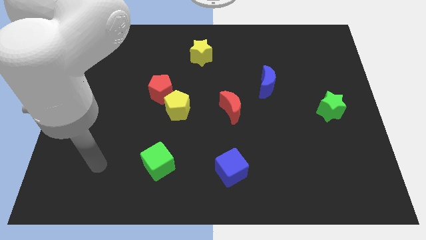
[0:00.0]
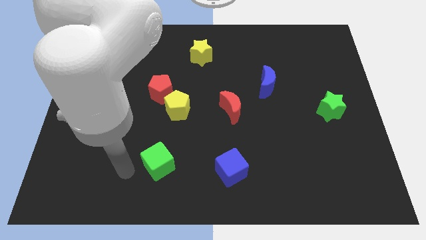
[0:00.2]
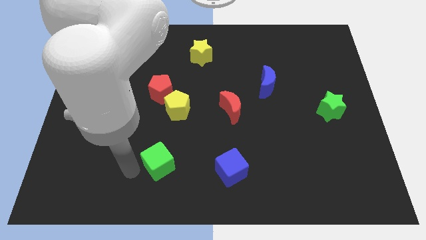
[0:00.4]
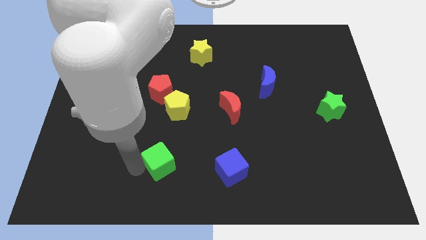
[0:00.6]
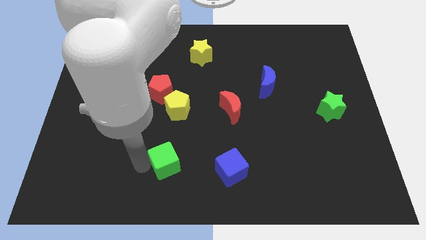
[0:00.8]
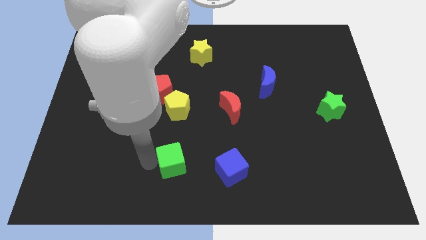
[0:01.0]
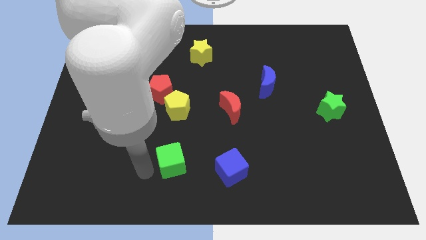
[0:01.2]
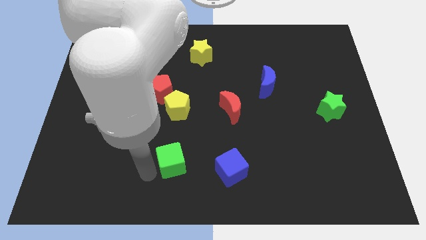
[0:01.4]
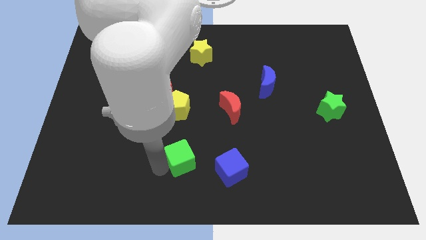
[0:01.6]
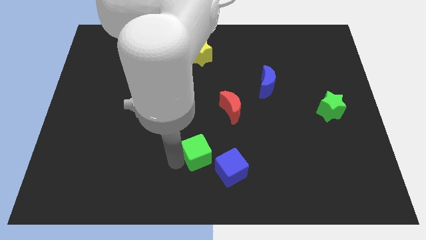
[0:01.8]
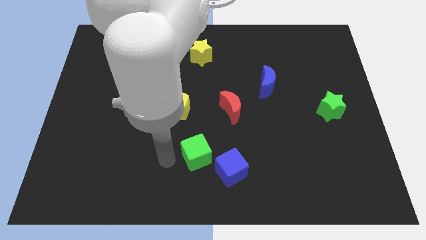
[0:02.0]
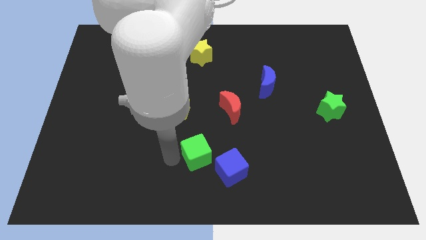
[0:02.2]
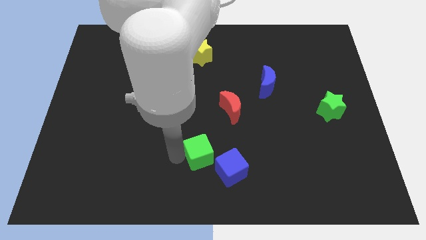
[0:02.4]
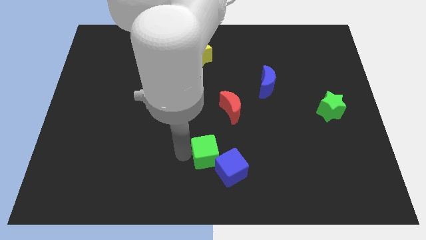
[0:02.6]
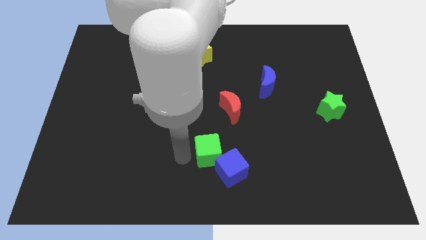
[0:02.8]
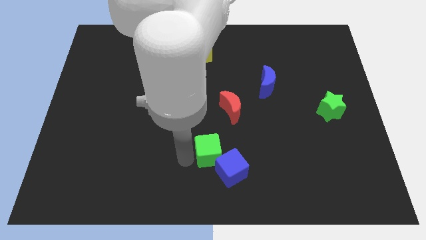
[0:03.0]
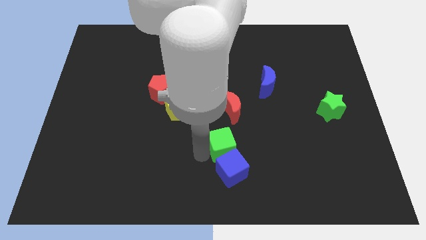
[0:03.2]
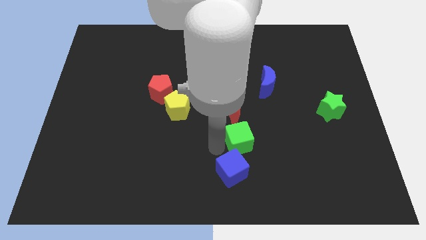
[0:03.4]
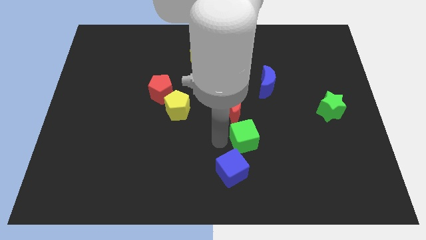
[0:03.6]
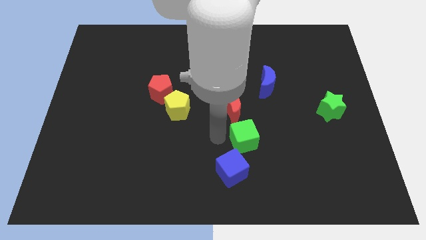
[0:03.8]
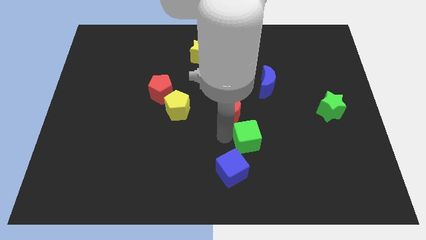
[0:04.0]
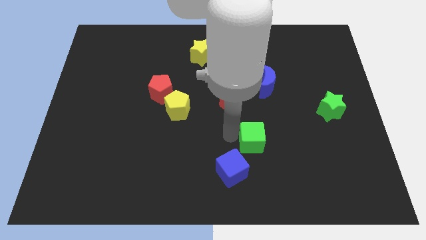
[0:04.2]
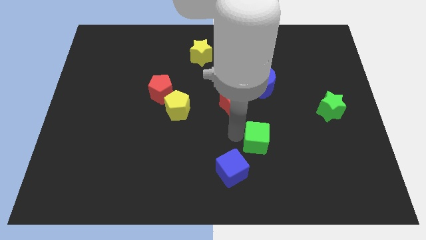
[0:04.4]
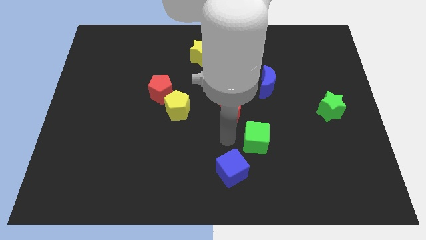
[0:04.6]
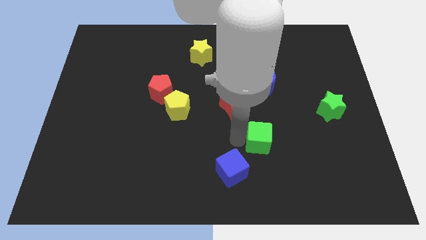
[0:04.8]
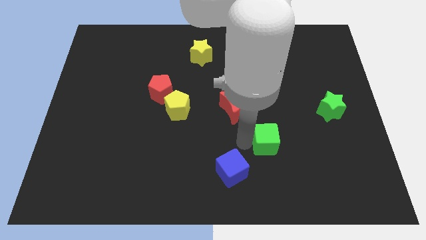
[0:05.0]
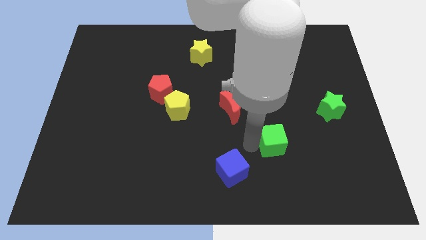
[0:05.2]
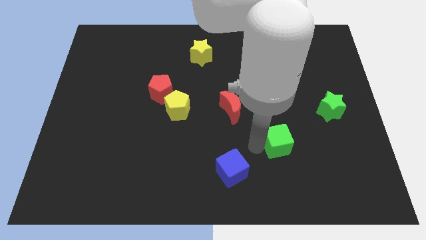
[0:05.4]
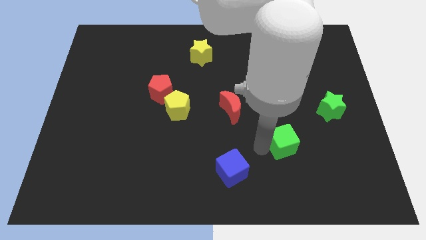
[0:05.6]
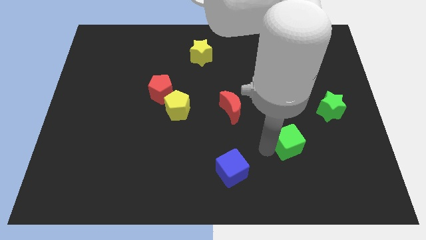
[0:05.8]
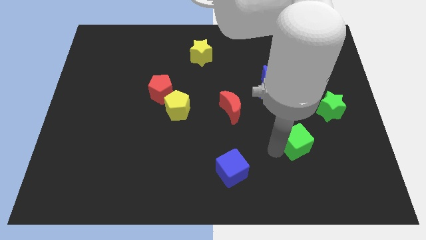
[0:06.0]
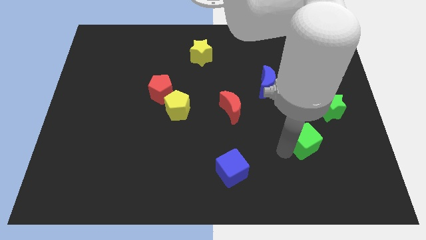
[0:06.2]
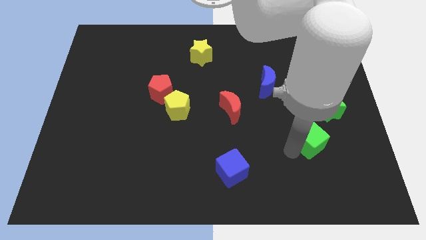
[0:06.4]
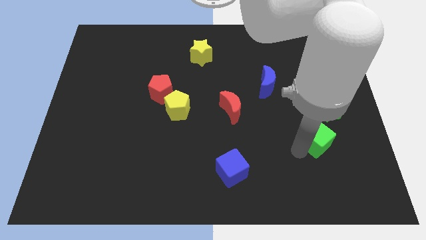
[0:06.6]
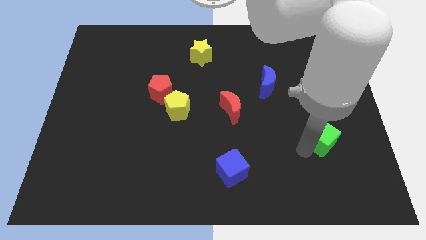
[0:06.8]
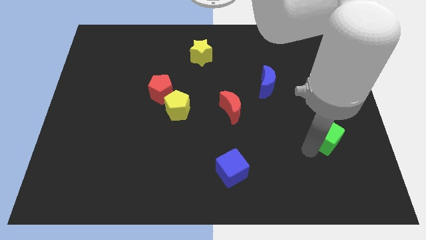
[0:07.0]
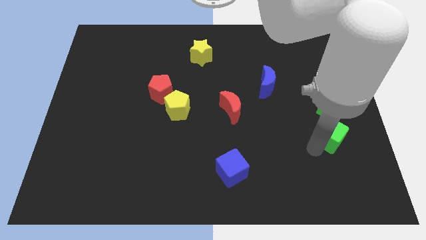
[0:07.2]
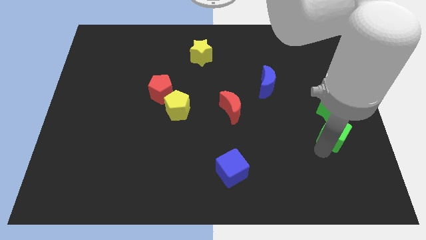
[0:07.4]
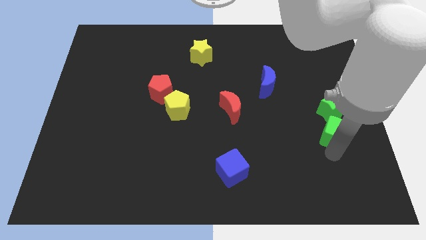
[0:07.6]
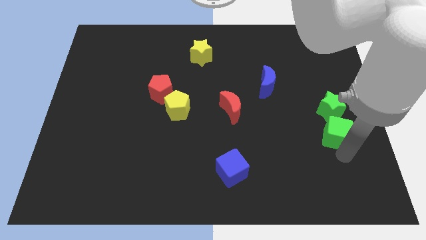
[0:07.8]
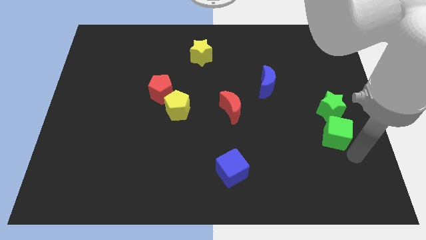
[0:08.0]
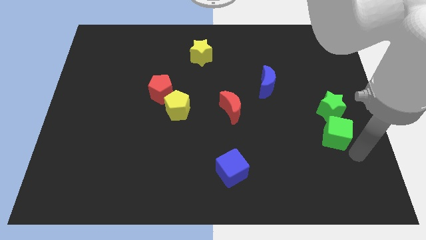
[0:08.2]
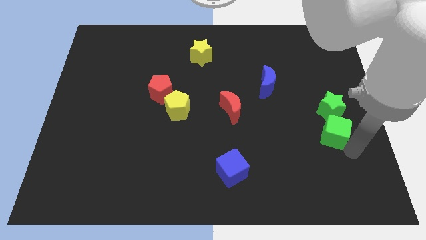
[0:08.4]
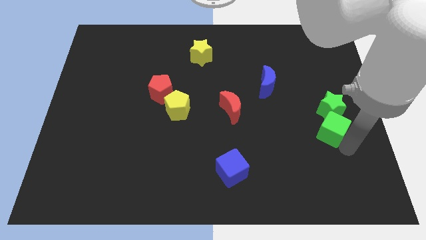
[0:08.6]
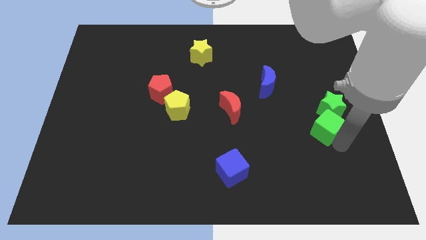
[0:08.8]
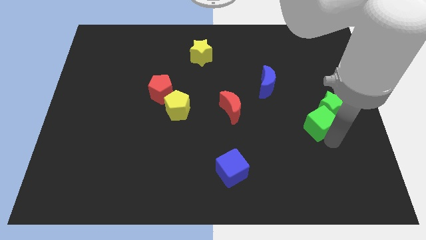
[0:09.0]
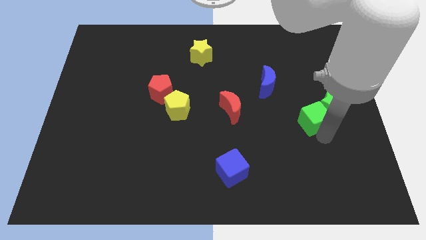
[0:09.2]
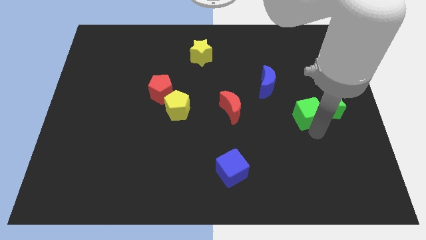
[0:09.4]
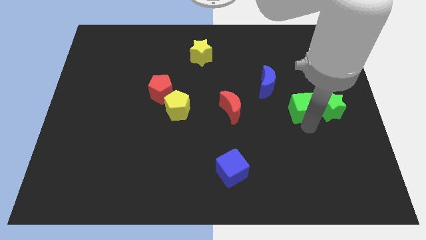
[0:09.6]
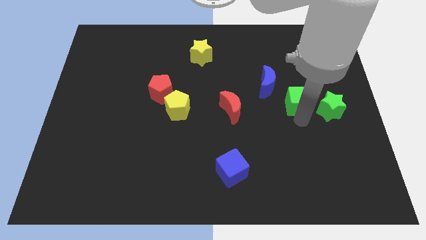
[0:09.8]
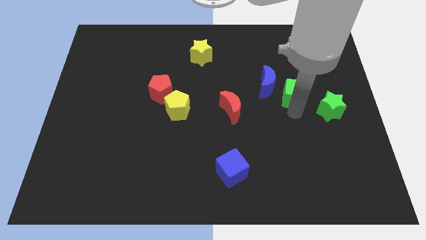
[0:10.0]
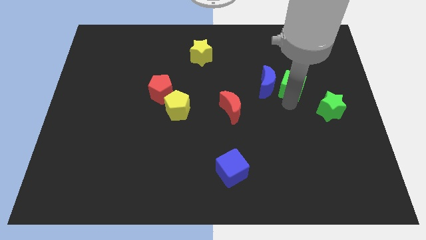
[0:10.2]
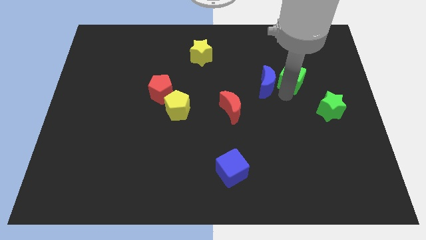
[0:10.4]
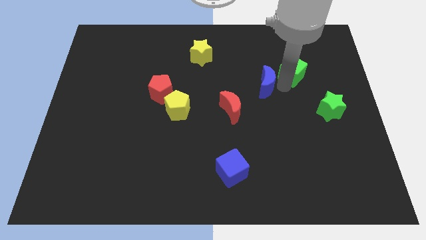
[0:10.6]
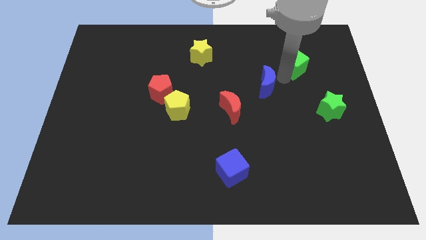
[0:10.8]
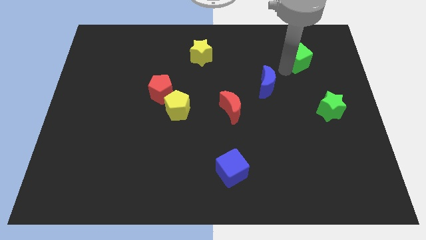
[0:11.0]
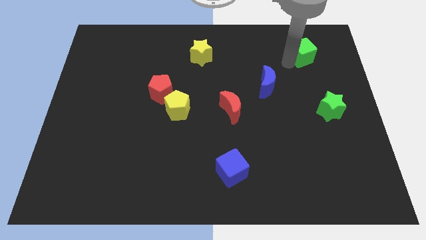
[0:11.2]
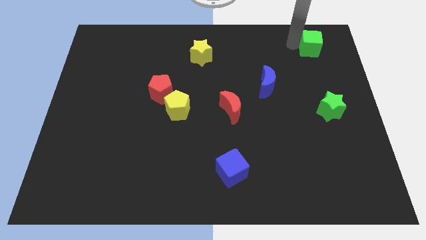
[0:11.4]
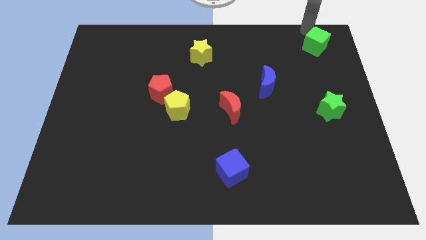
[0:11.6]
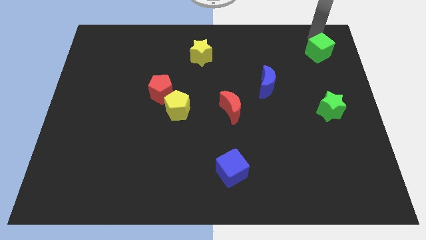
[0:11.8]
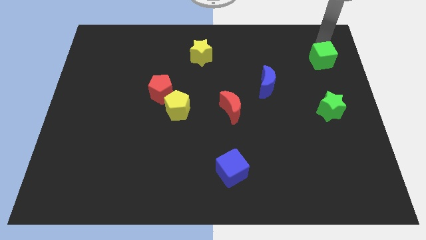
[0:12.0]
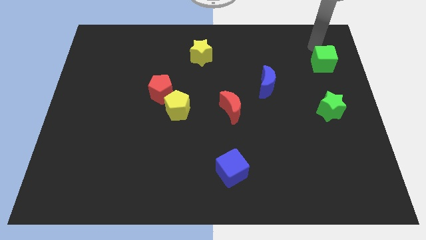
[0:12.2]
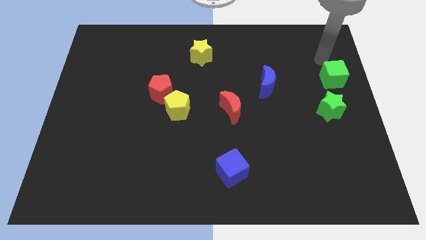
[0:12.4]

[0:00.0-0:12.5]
move the green cube to the right side

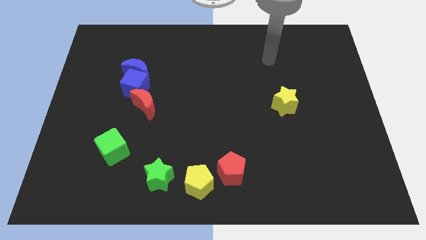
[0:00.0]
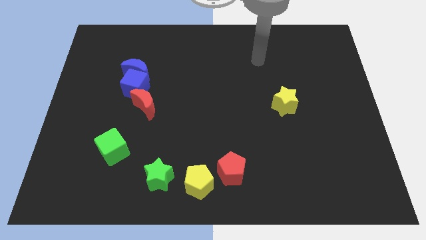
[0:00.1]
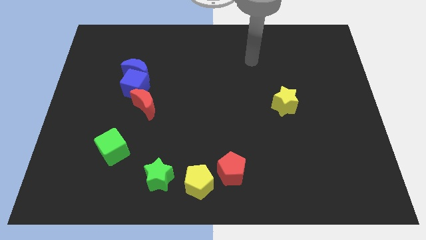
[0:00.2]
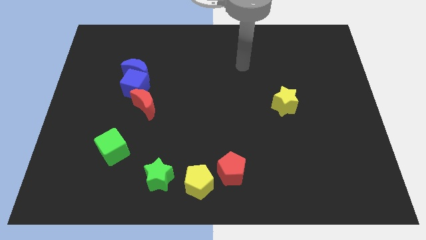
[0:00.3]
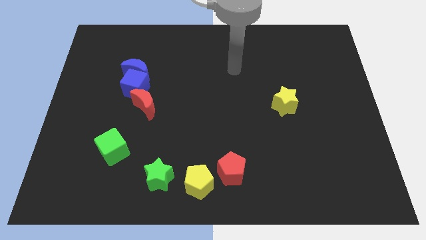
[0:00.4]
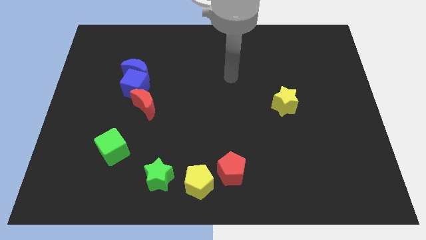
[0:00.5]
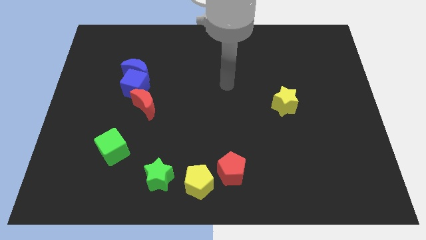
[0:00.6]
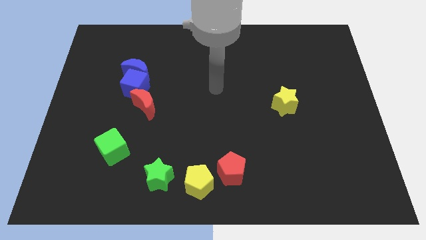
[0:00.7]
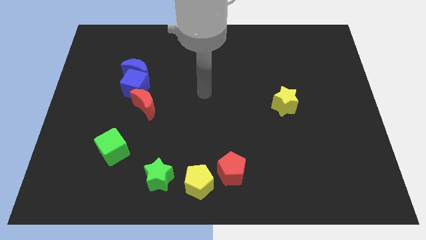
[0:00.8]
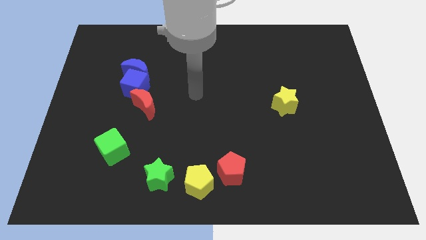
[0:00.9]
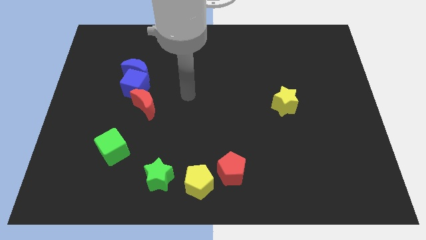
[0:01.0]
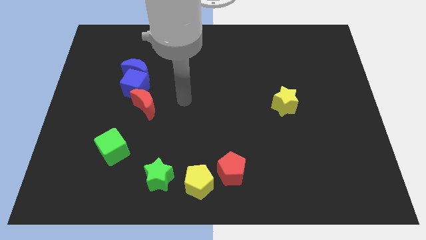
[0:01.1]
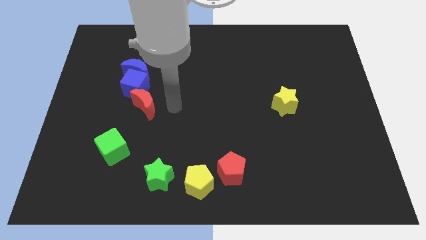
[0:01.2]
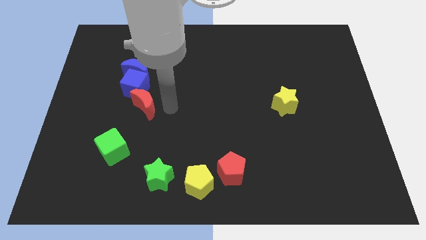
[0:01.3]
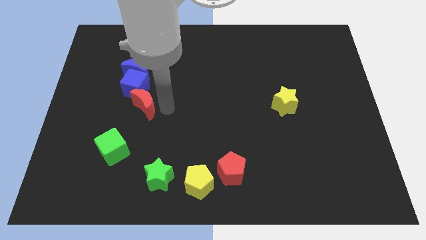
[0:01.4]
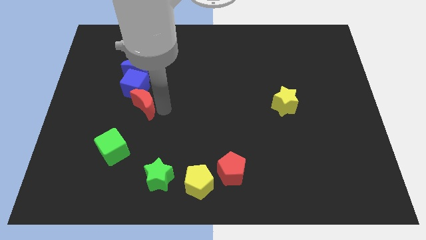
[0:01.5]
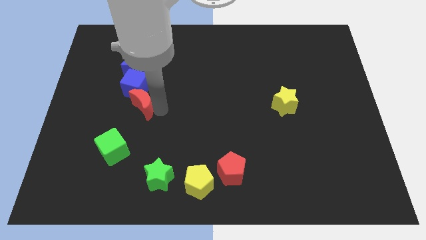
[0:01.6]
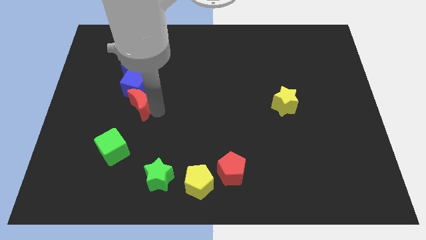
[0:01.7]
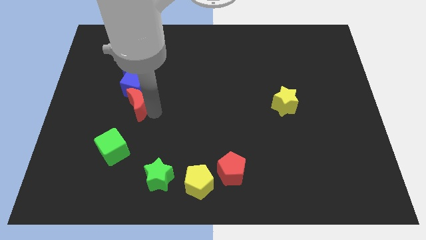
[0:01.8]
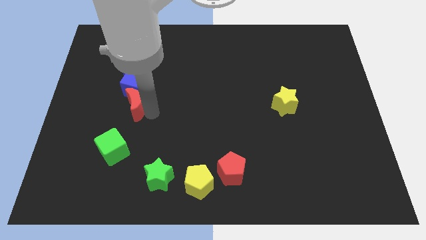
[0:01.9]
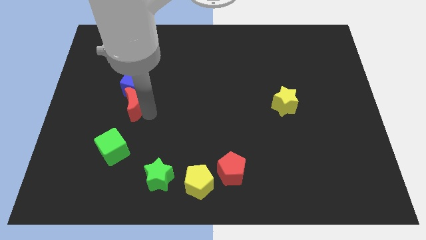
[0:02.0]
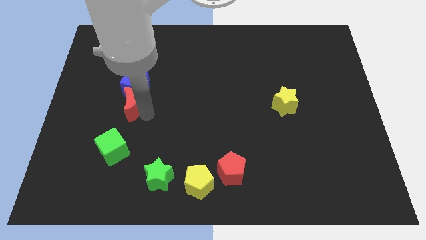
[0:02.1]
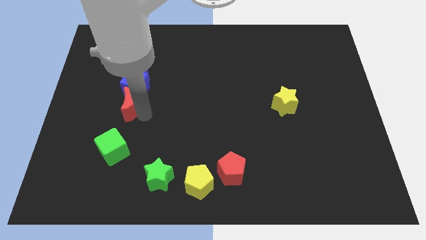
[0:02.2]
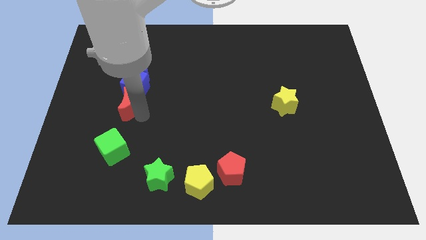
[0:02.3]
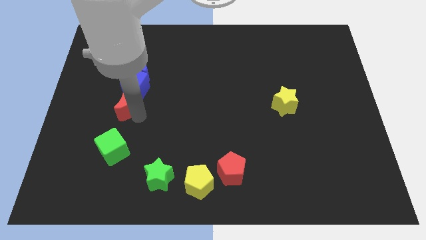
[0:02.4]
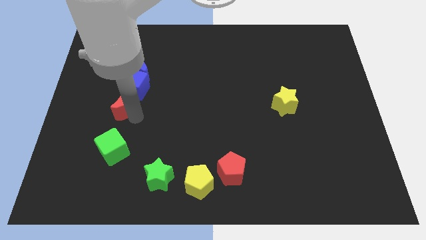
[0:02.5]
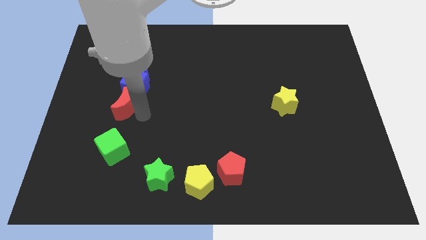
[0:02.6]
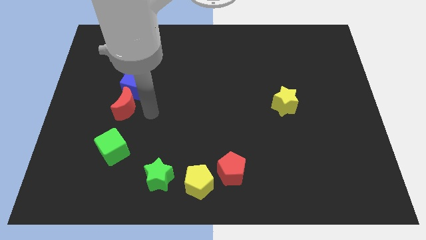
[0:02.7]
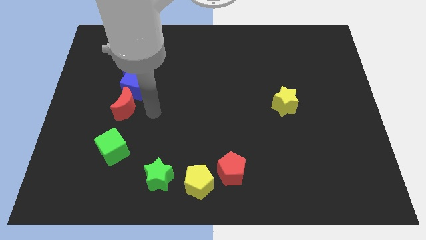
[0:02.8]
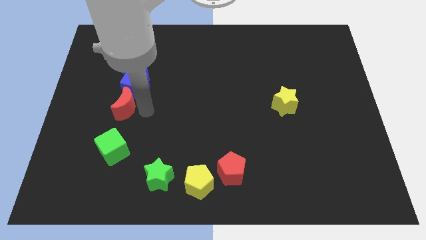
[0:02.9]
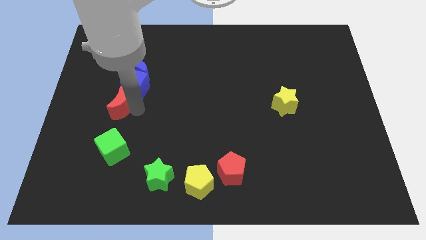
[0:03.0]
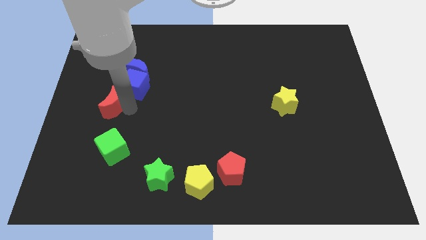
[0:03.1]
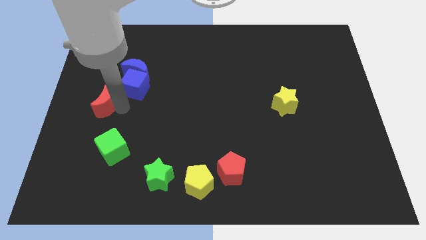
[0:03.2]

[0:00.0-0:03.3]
move the red moon to the left side of the board
